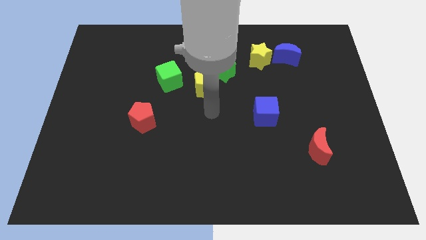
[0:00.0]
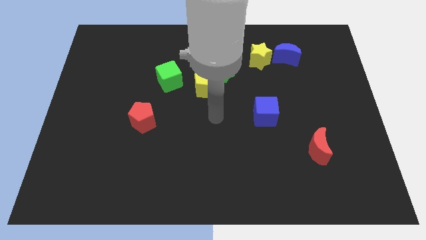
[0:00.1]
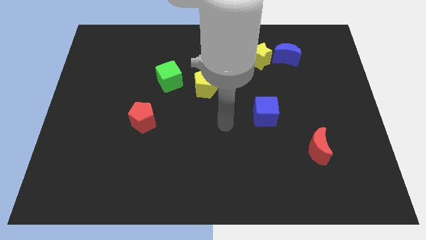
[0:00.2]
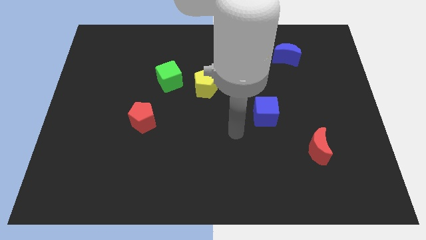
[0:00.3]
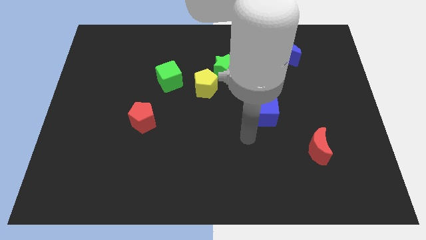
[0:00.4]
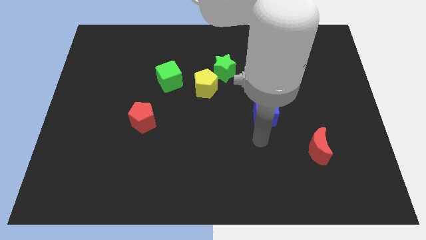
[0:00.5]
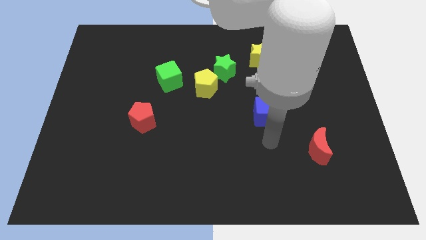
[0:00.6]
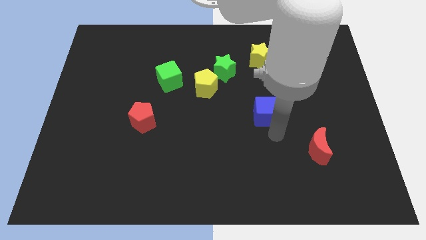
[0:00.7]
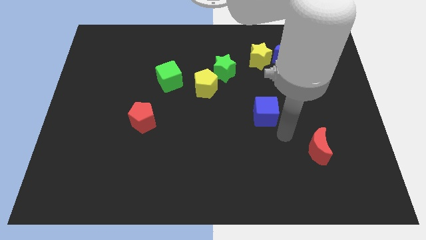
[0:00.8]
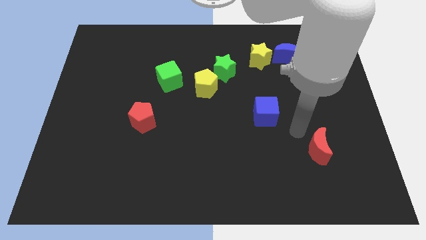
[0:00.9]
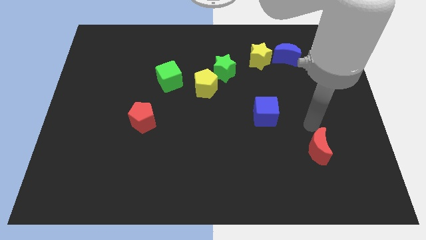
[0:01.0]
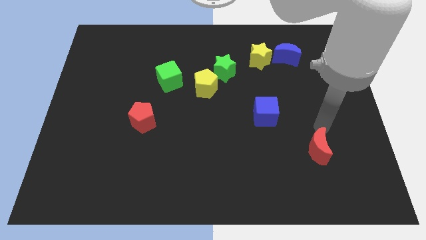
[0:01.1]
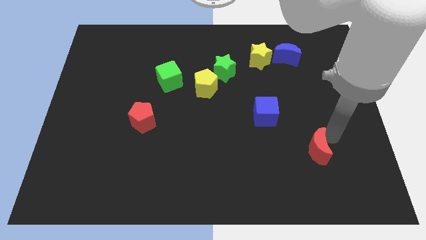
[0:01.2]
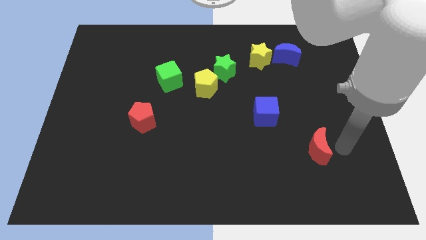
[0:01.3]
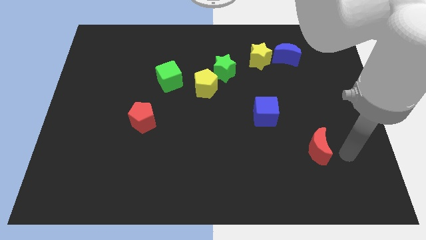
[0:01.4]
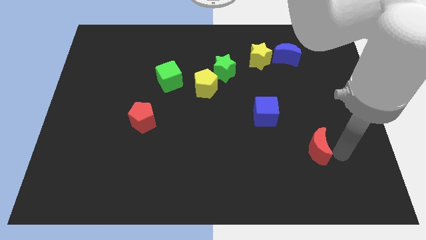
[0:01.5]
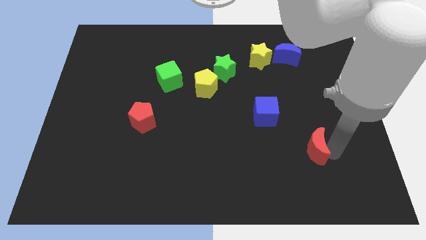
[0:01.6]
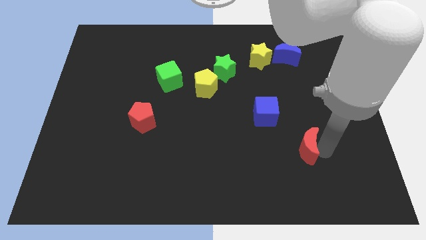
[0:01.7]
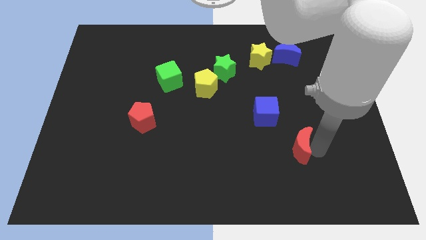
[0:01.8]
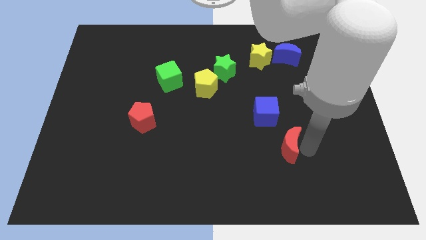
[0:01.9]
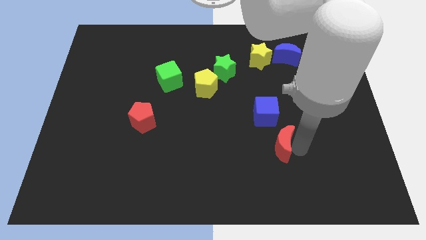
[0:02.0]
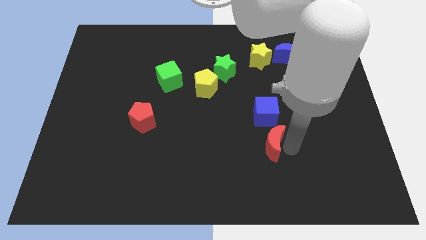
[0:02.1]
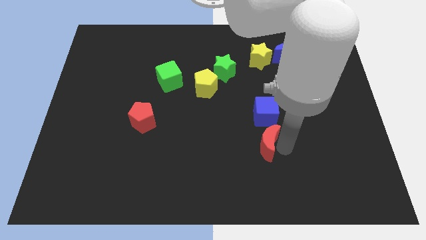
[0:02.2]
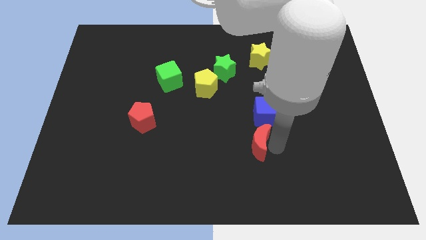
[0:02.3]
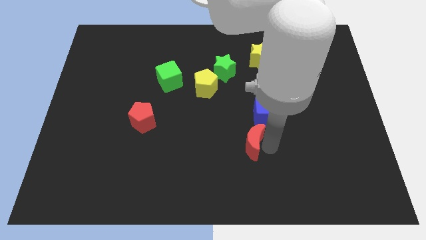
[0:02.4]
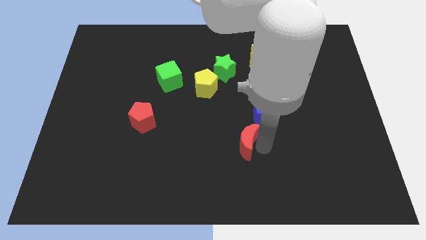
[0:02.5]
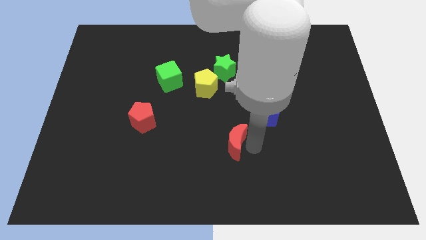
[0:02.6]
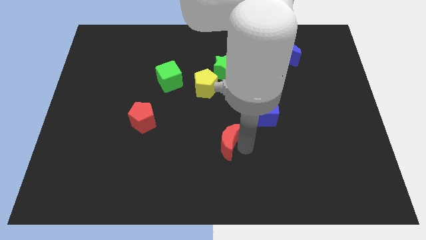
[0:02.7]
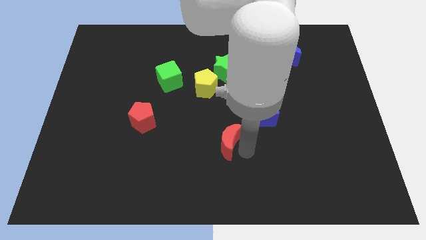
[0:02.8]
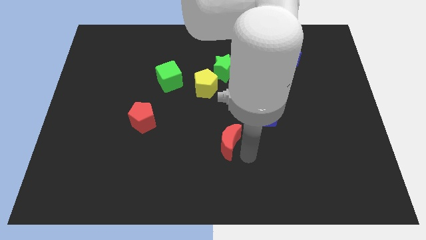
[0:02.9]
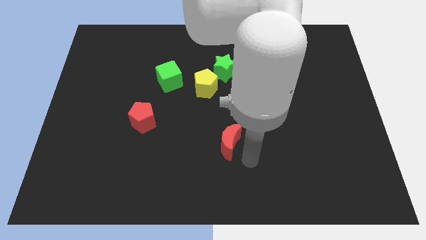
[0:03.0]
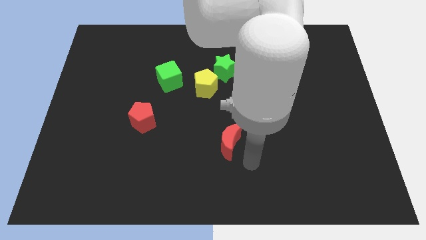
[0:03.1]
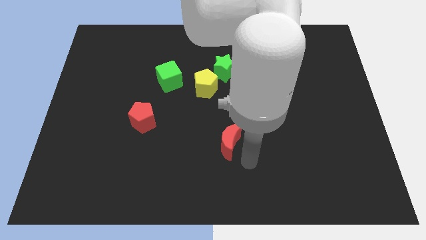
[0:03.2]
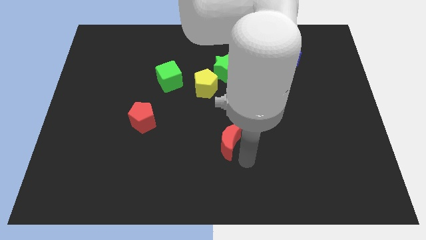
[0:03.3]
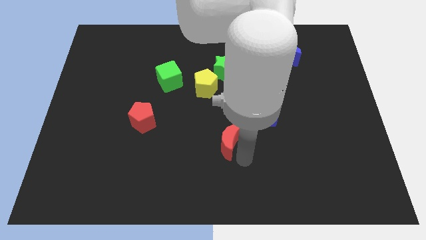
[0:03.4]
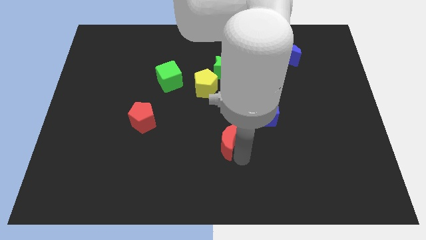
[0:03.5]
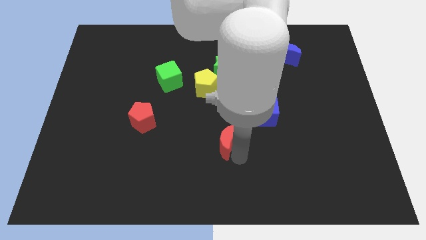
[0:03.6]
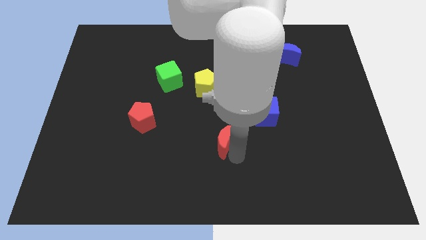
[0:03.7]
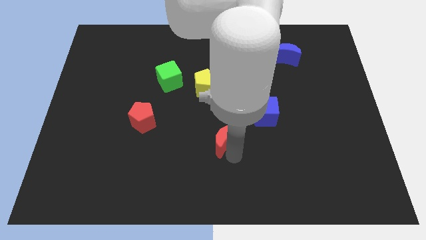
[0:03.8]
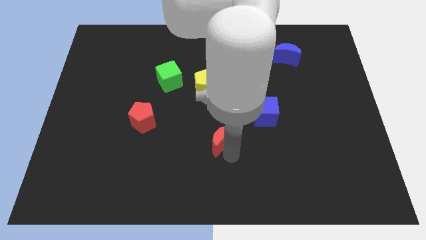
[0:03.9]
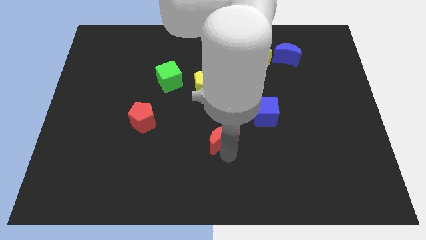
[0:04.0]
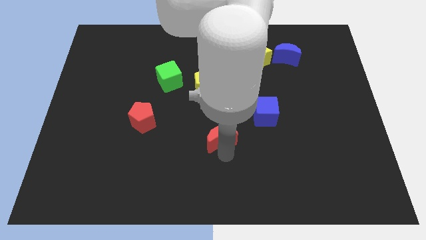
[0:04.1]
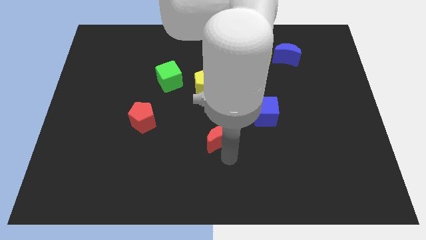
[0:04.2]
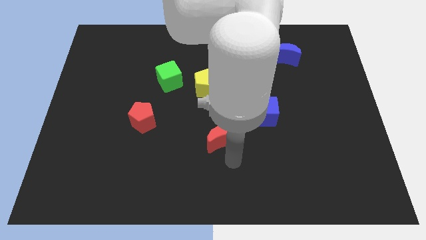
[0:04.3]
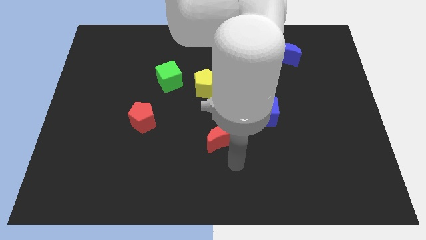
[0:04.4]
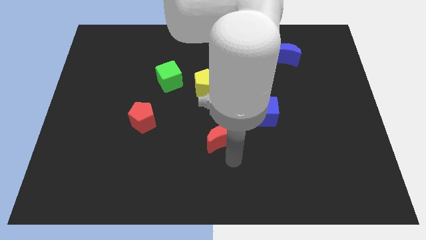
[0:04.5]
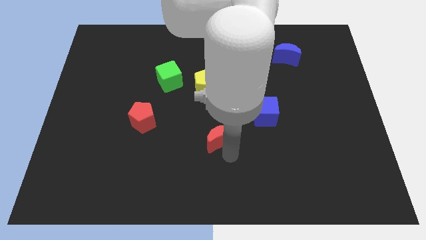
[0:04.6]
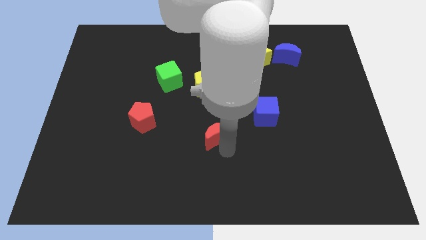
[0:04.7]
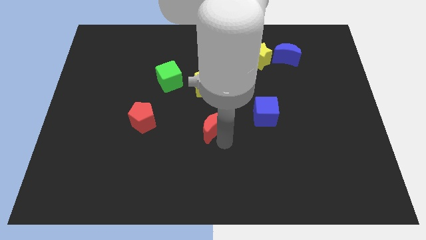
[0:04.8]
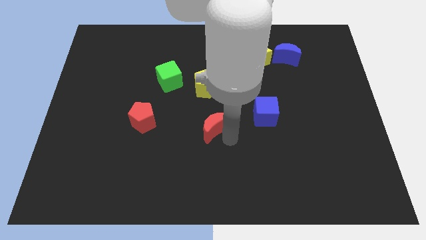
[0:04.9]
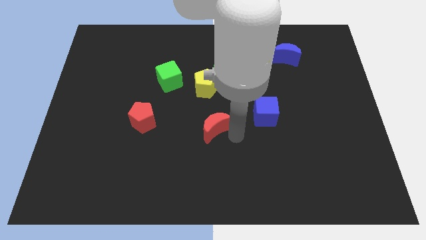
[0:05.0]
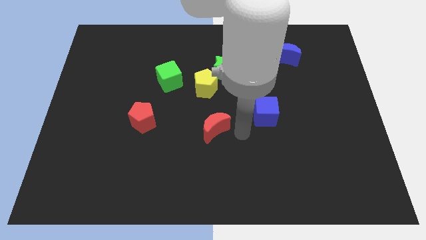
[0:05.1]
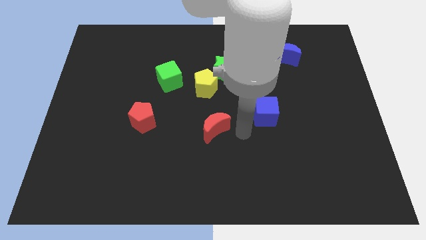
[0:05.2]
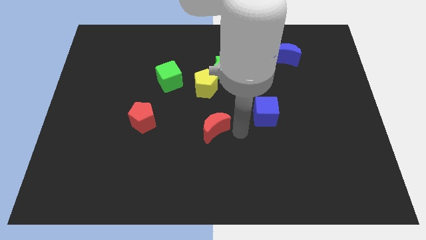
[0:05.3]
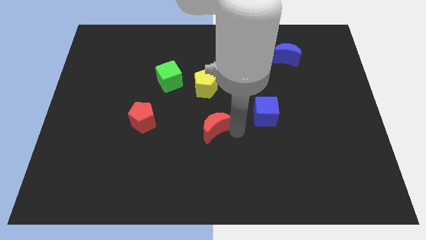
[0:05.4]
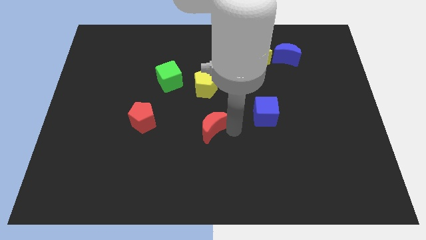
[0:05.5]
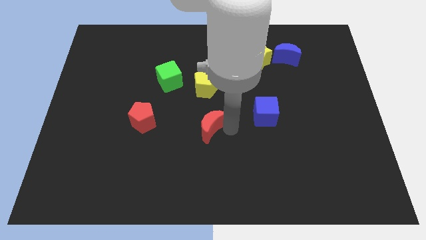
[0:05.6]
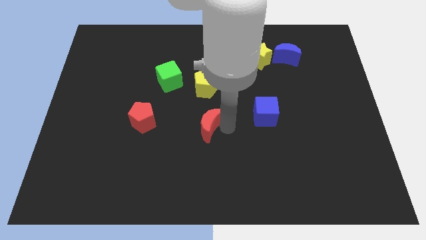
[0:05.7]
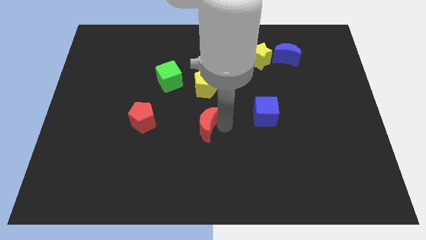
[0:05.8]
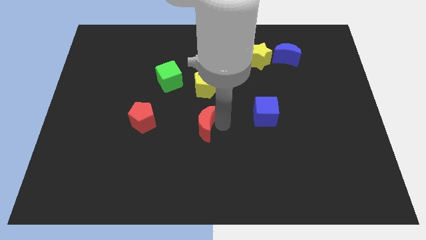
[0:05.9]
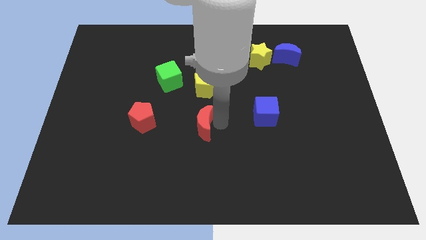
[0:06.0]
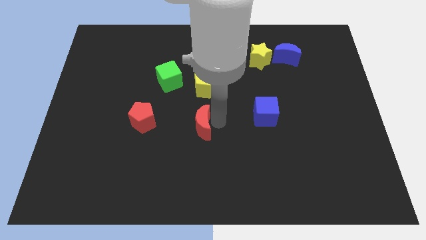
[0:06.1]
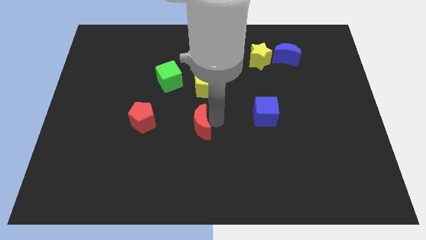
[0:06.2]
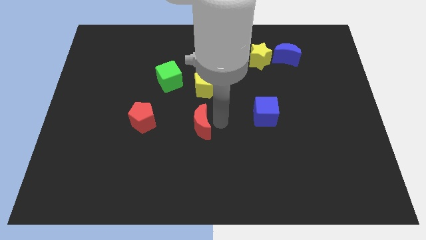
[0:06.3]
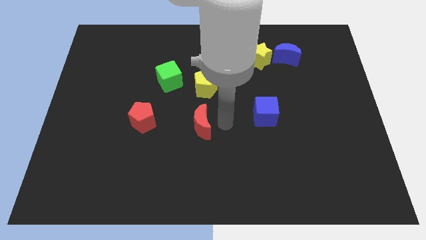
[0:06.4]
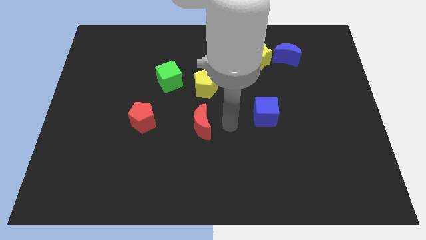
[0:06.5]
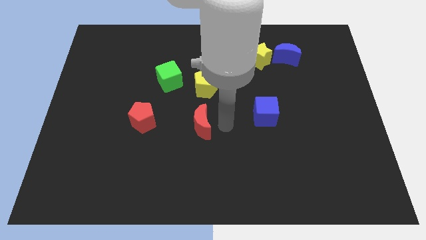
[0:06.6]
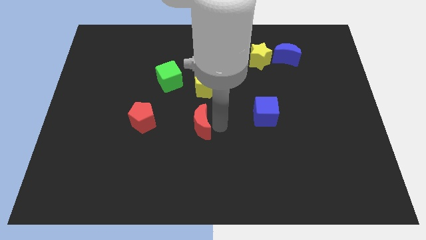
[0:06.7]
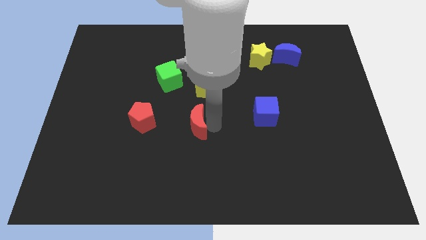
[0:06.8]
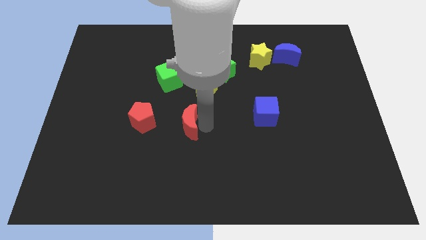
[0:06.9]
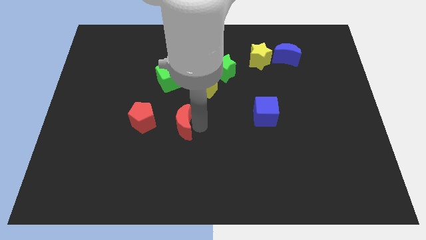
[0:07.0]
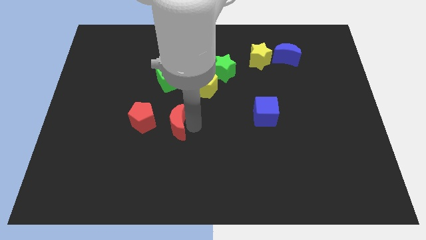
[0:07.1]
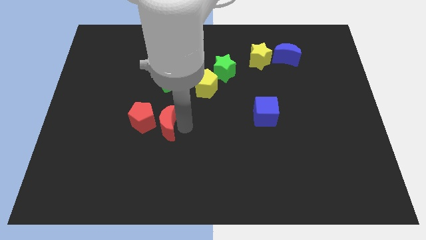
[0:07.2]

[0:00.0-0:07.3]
move the red moon close to the red pentagon
